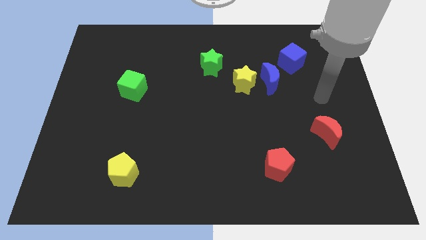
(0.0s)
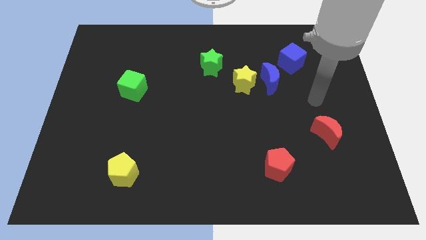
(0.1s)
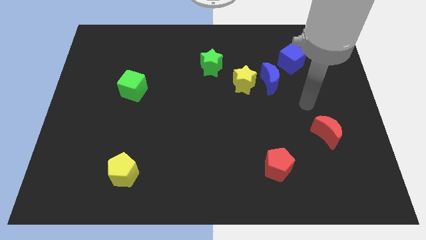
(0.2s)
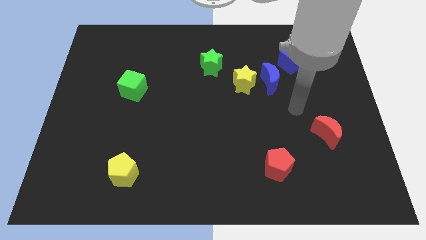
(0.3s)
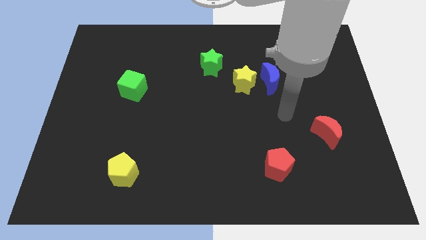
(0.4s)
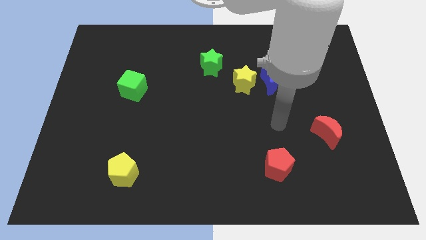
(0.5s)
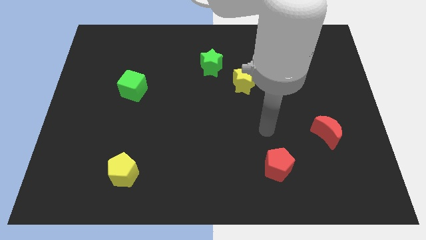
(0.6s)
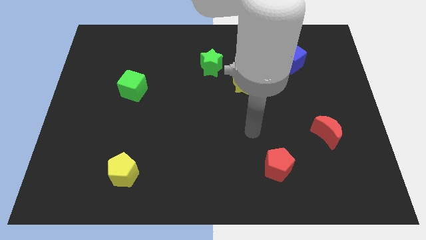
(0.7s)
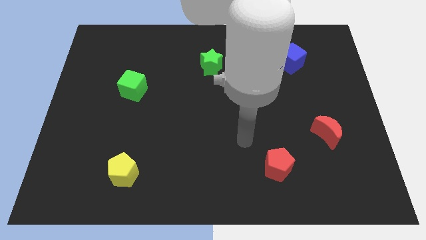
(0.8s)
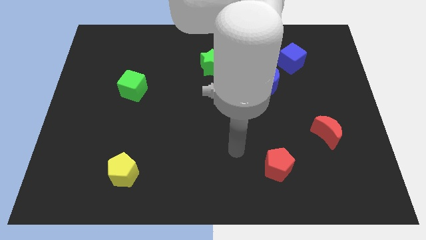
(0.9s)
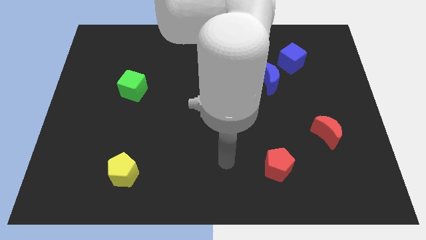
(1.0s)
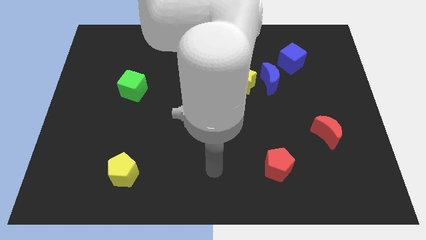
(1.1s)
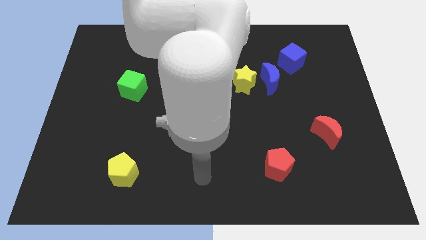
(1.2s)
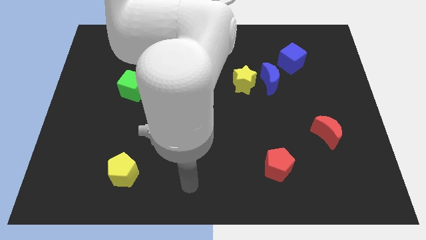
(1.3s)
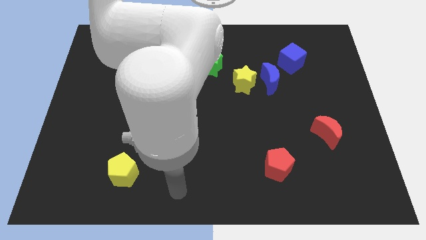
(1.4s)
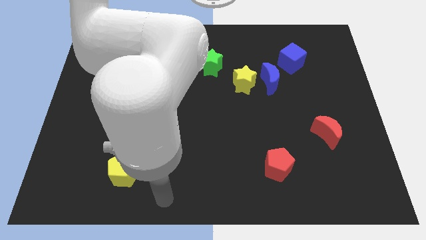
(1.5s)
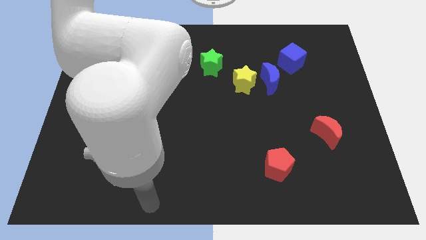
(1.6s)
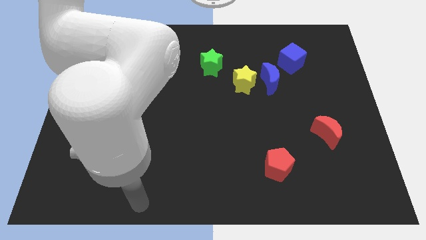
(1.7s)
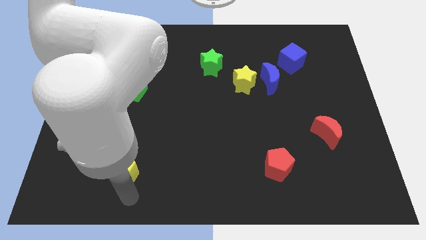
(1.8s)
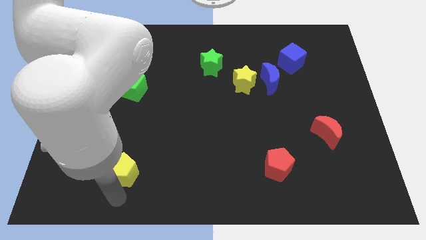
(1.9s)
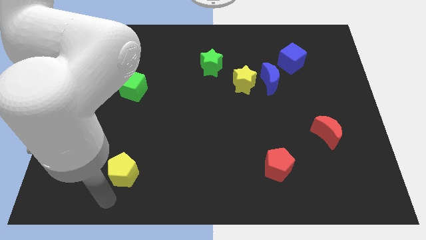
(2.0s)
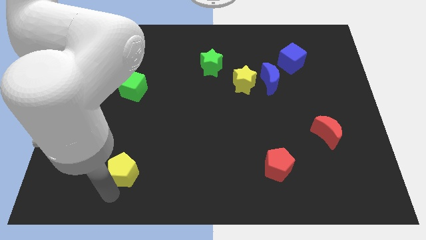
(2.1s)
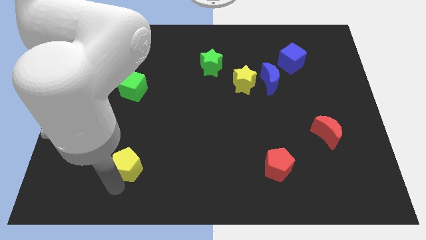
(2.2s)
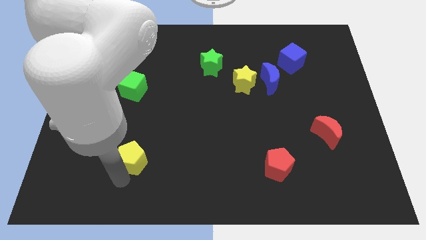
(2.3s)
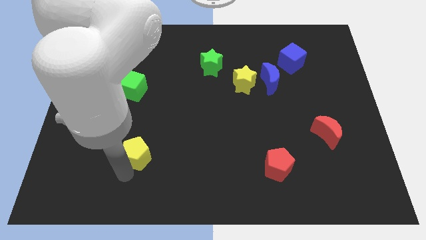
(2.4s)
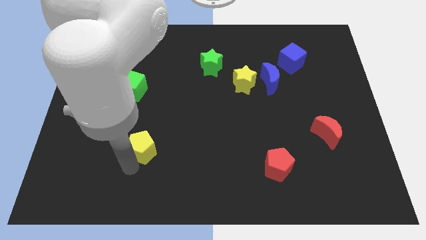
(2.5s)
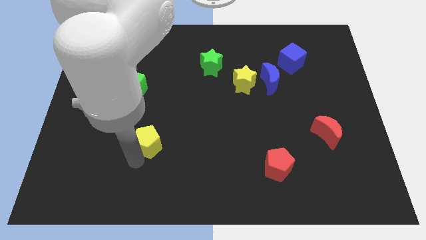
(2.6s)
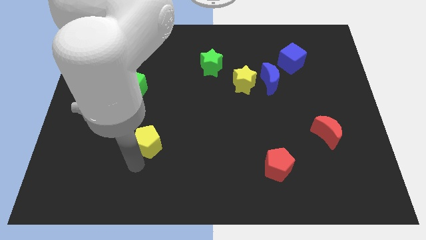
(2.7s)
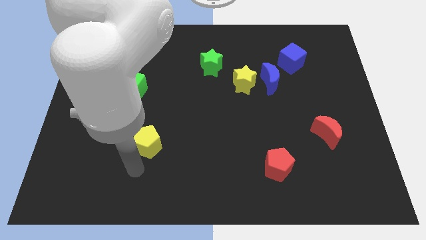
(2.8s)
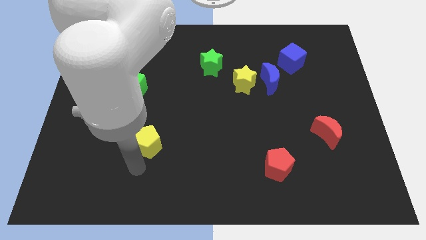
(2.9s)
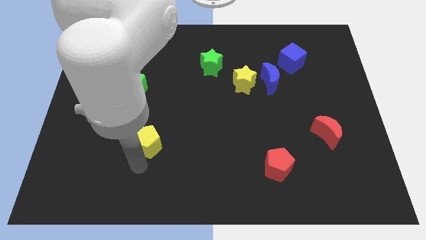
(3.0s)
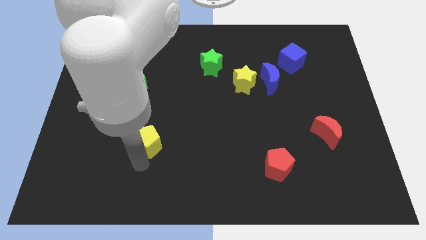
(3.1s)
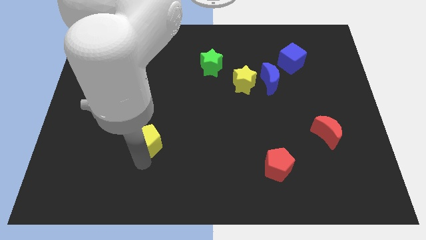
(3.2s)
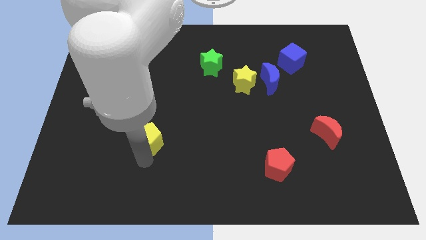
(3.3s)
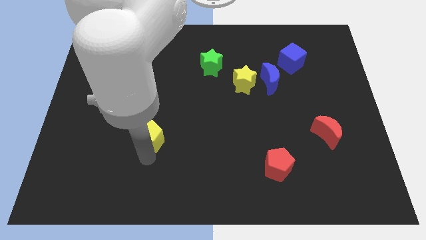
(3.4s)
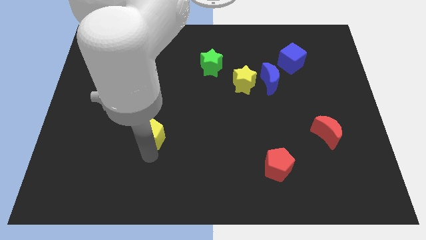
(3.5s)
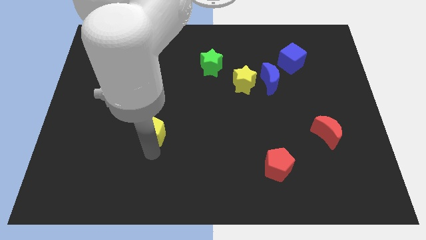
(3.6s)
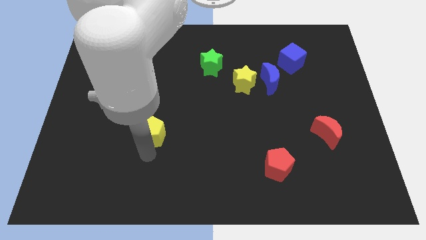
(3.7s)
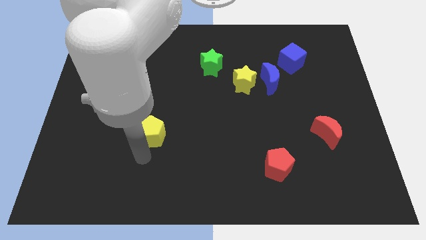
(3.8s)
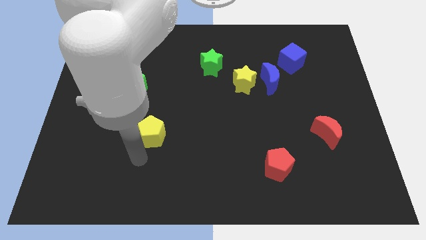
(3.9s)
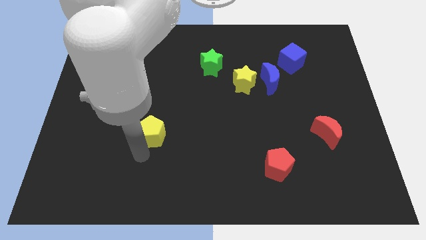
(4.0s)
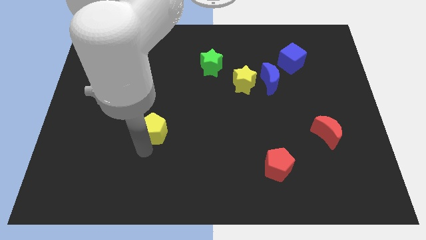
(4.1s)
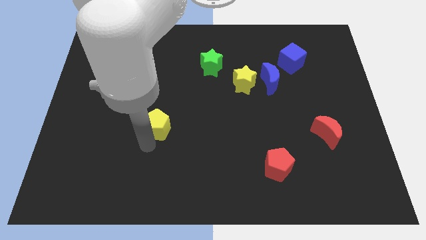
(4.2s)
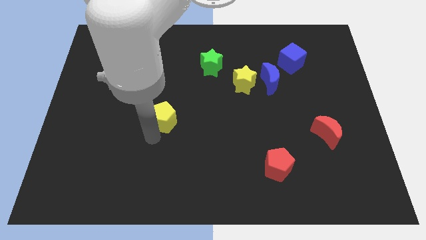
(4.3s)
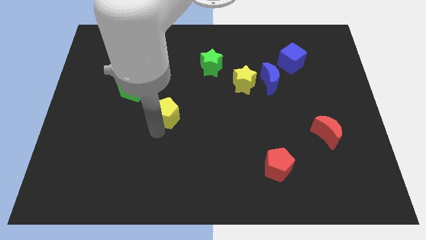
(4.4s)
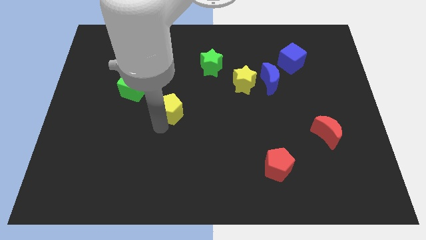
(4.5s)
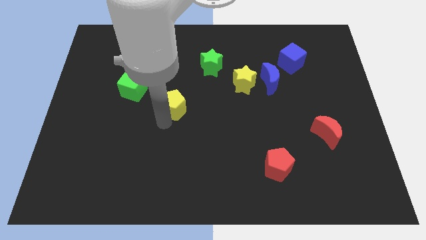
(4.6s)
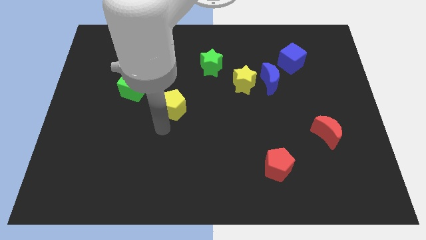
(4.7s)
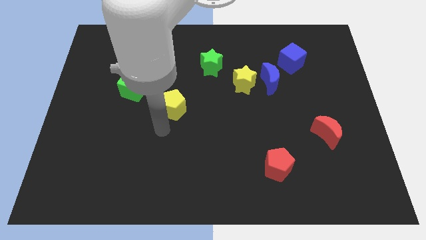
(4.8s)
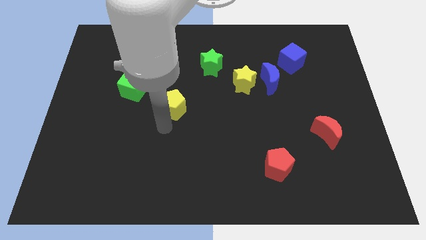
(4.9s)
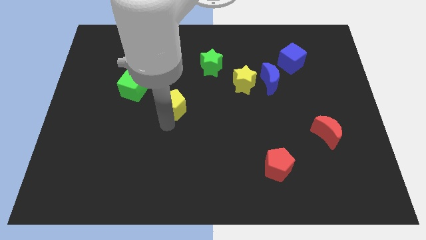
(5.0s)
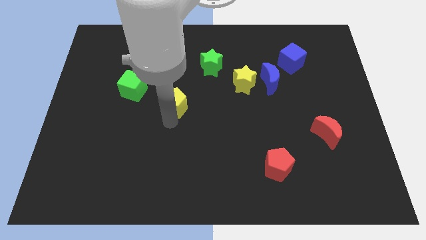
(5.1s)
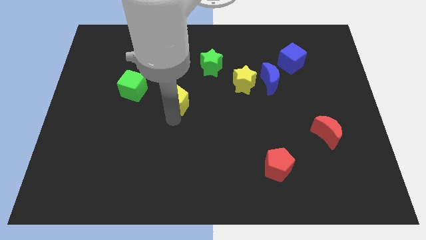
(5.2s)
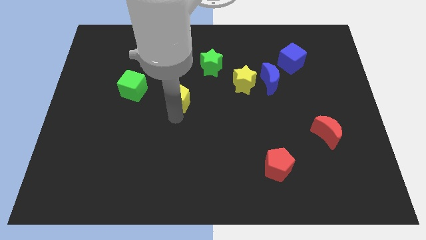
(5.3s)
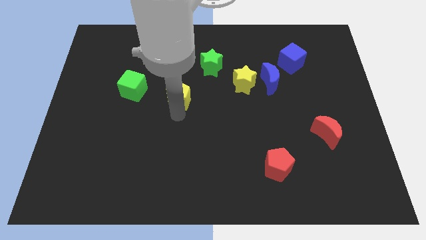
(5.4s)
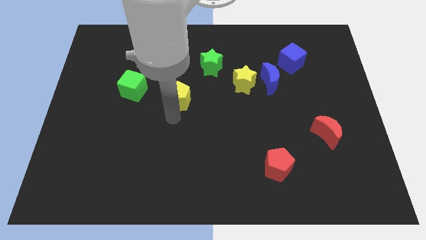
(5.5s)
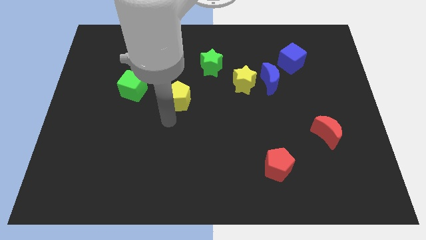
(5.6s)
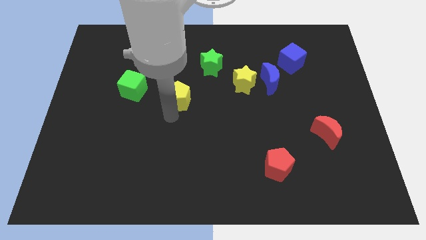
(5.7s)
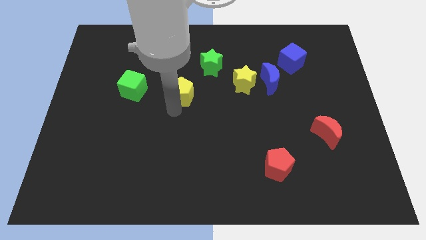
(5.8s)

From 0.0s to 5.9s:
put the yellow pentagon diagonally down and to the left of the green star

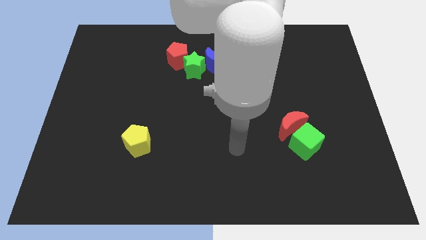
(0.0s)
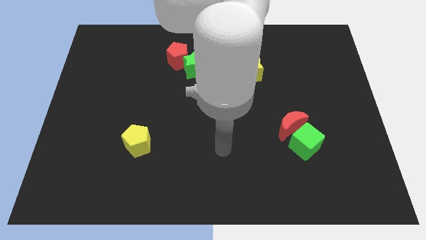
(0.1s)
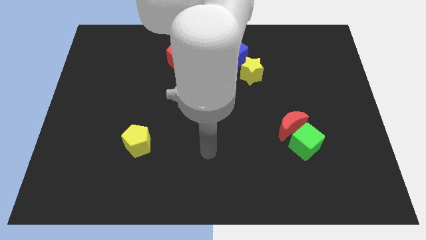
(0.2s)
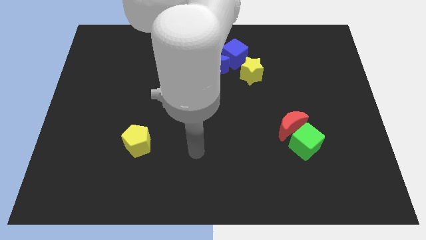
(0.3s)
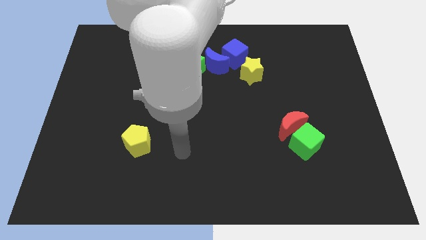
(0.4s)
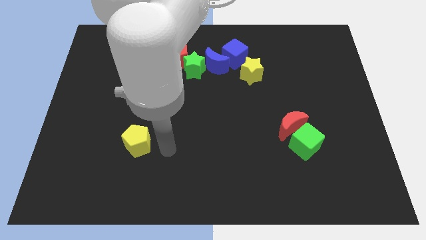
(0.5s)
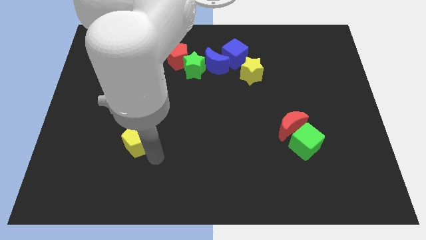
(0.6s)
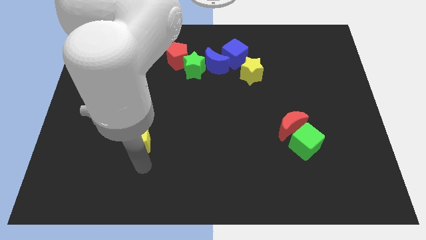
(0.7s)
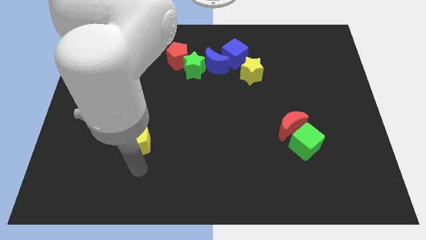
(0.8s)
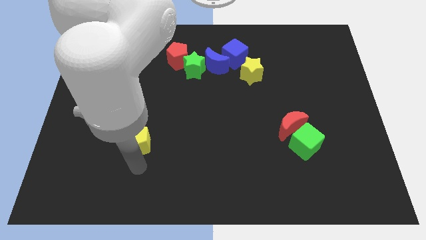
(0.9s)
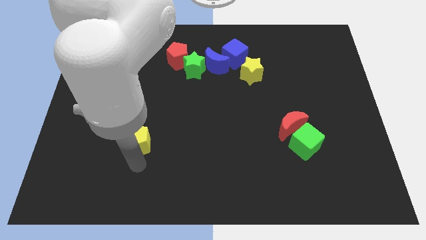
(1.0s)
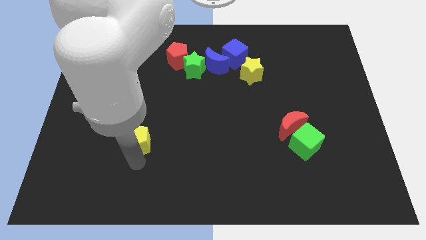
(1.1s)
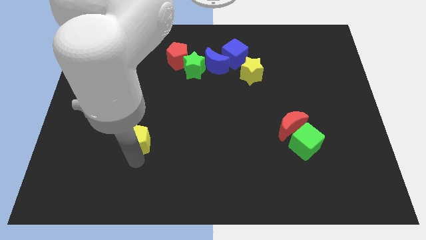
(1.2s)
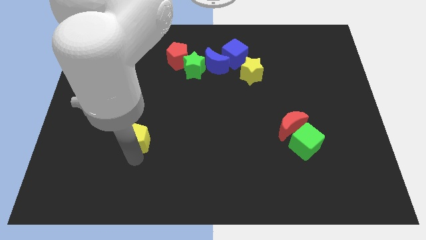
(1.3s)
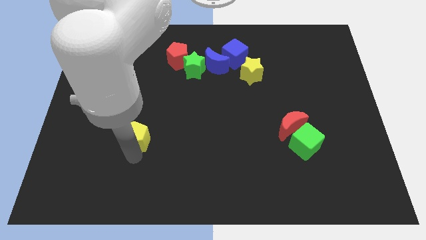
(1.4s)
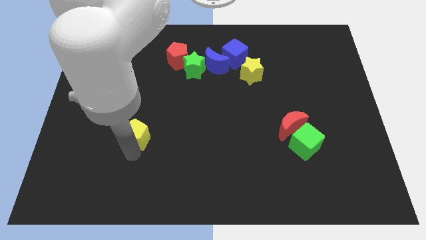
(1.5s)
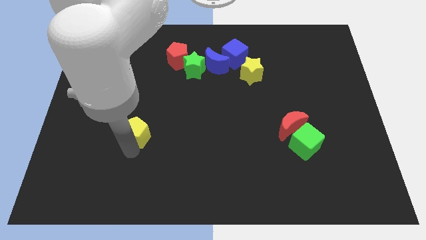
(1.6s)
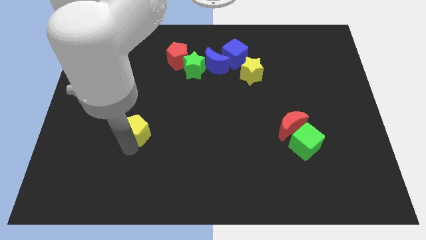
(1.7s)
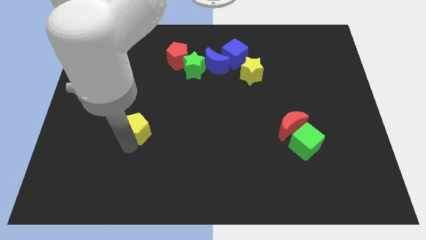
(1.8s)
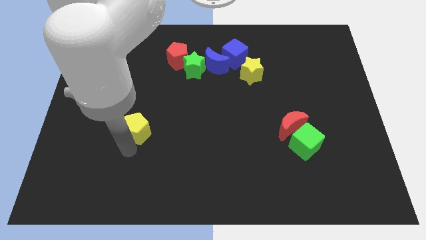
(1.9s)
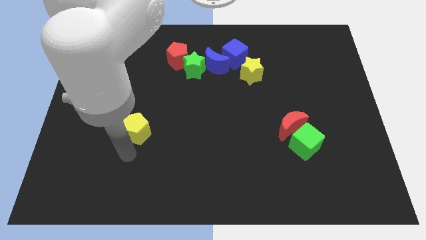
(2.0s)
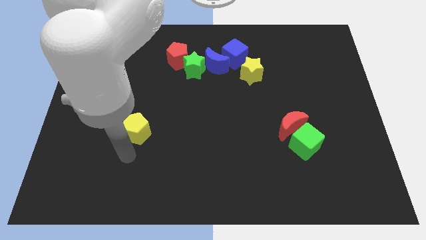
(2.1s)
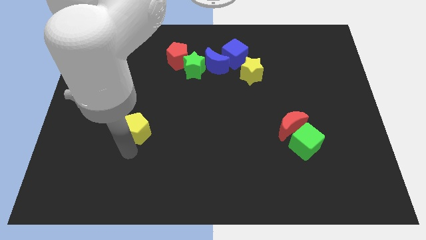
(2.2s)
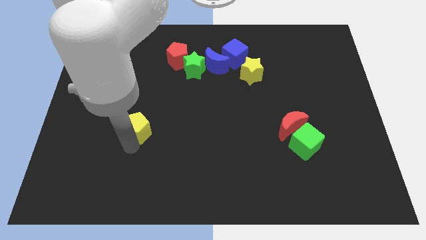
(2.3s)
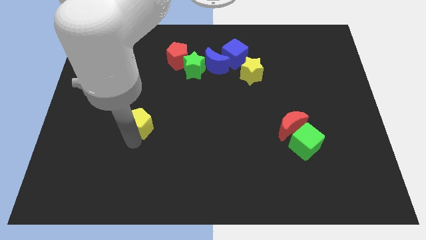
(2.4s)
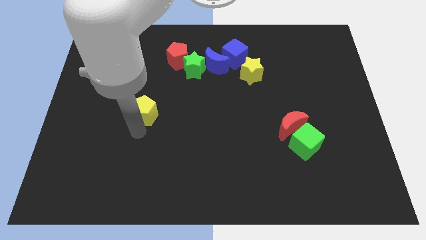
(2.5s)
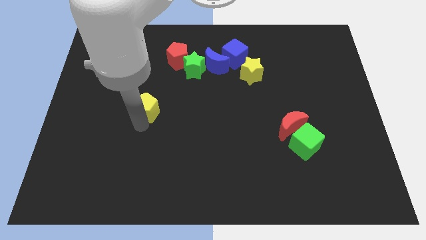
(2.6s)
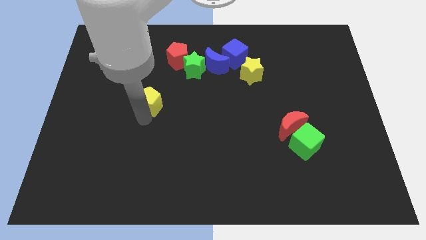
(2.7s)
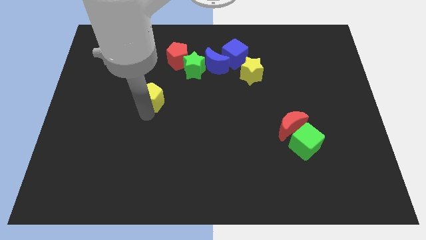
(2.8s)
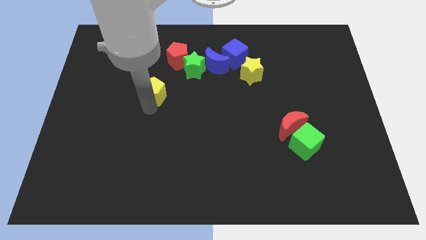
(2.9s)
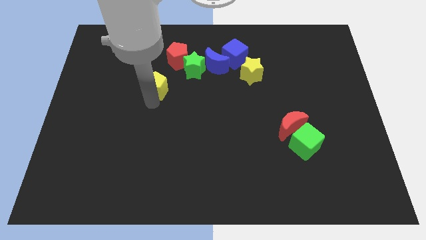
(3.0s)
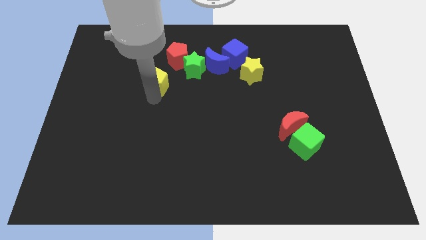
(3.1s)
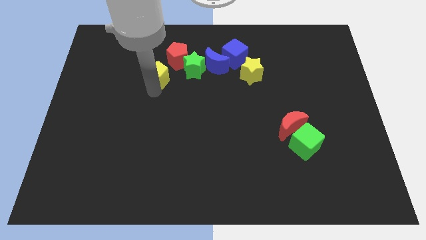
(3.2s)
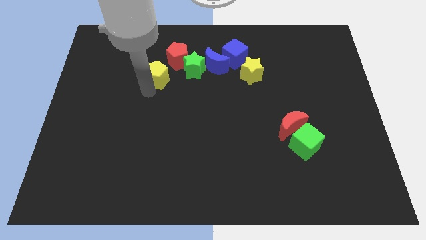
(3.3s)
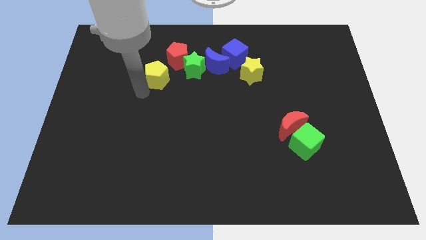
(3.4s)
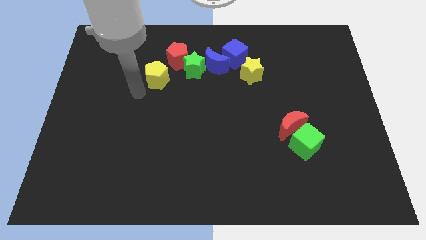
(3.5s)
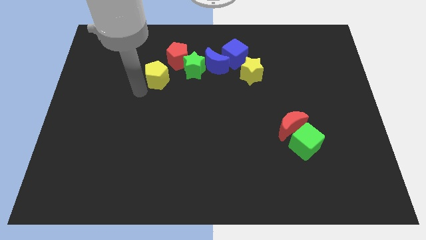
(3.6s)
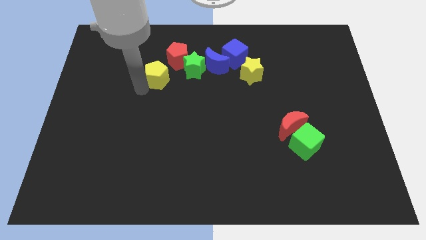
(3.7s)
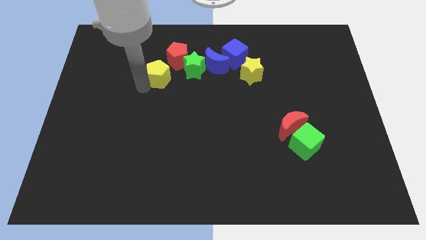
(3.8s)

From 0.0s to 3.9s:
put the yellow pentagon to the left side of the blue moon
